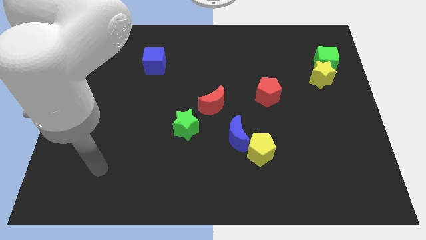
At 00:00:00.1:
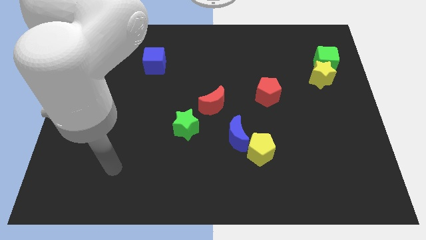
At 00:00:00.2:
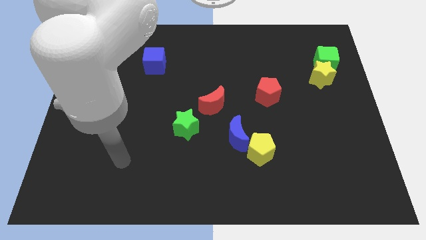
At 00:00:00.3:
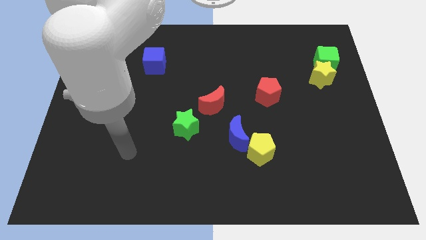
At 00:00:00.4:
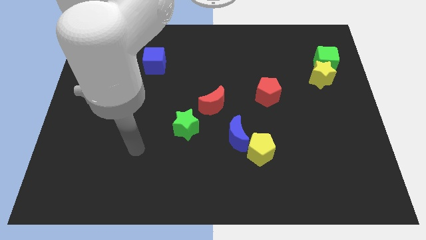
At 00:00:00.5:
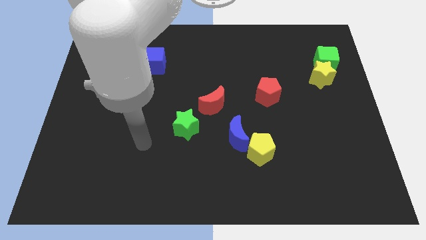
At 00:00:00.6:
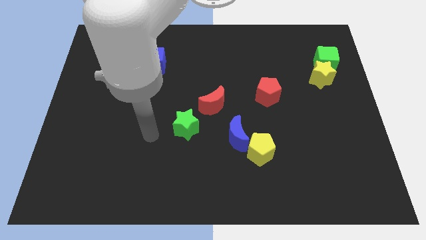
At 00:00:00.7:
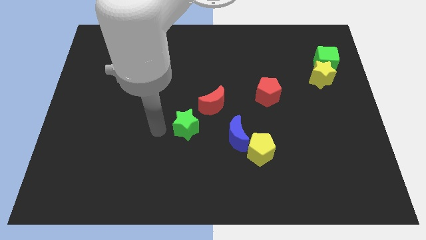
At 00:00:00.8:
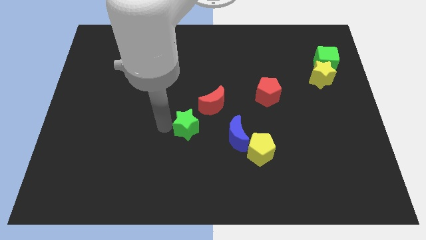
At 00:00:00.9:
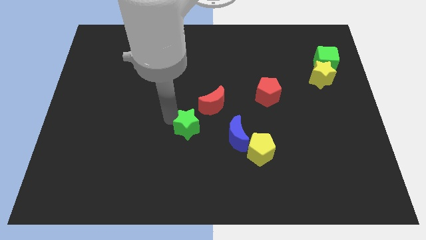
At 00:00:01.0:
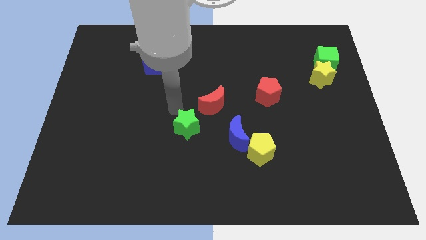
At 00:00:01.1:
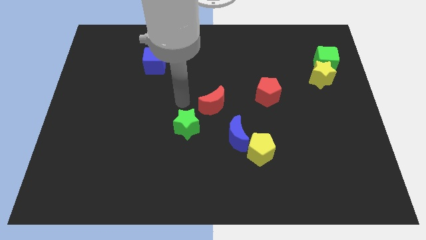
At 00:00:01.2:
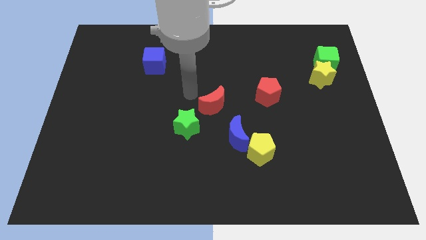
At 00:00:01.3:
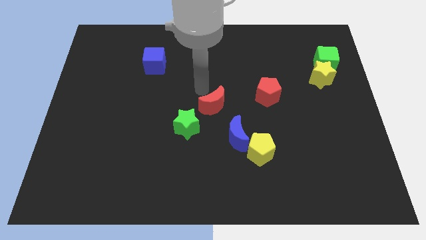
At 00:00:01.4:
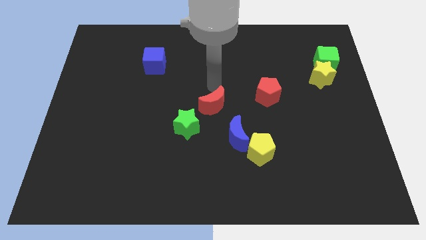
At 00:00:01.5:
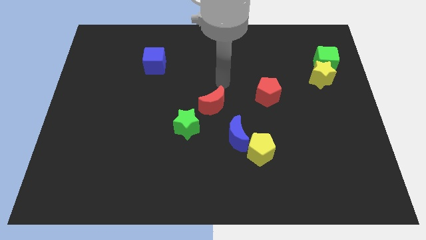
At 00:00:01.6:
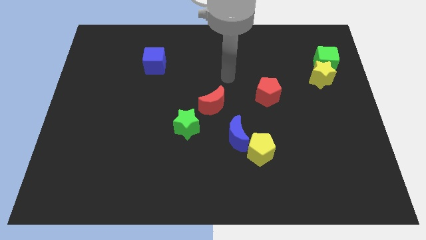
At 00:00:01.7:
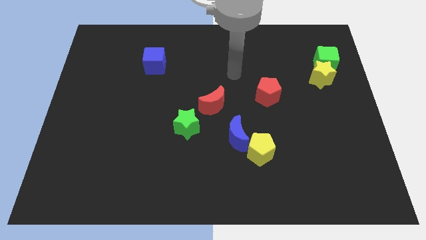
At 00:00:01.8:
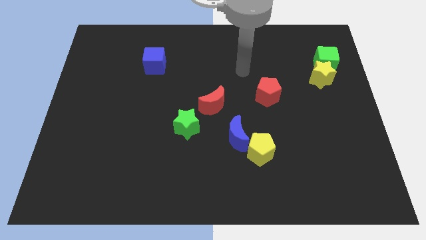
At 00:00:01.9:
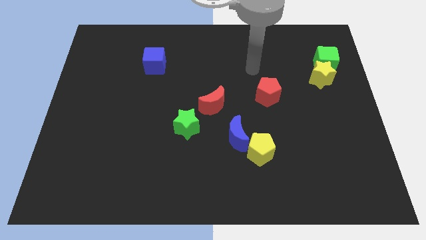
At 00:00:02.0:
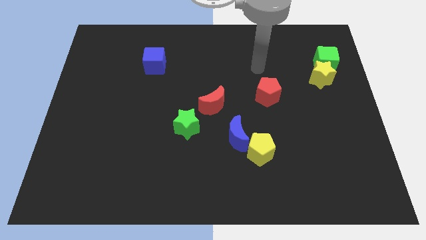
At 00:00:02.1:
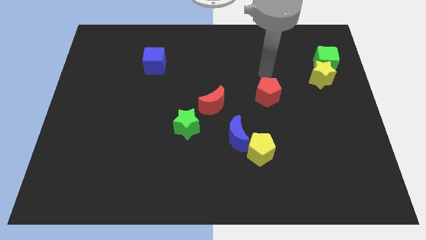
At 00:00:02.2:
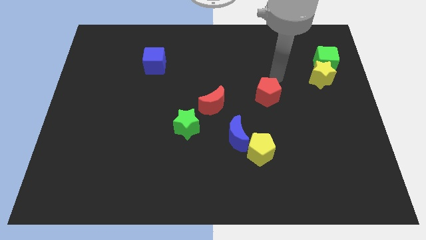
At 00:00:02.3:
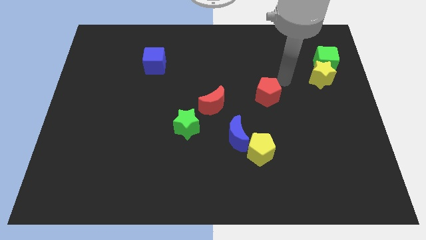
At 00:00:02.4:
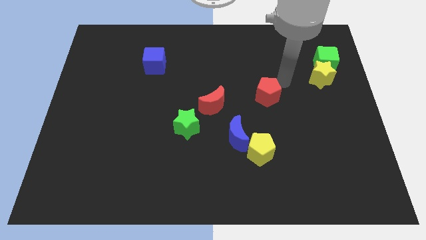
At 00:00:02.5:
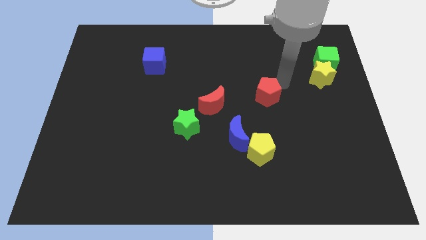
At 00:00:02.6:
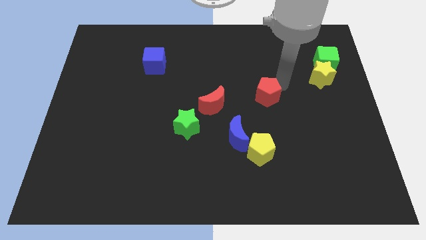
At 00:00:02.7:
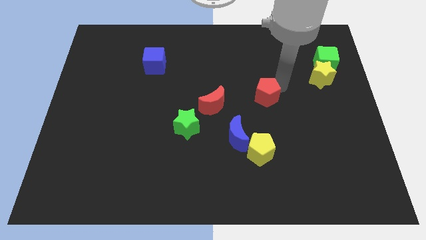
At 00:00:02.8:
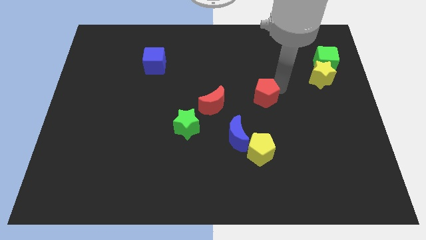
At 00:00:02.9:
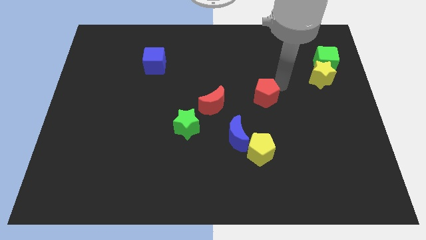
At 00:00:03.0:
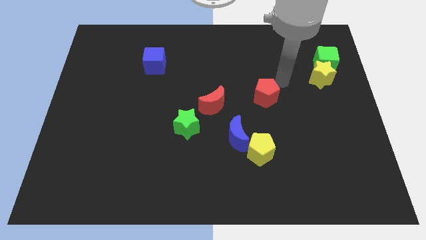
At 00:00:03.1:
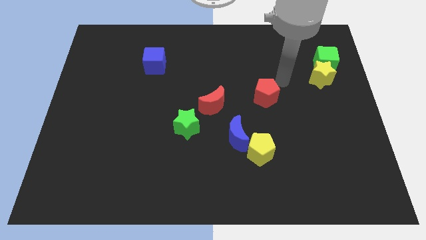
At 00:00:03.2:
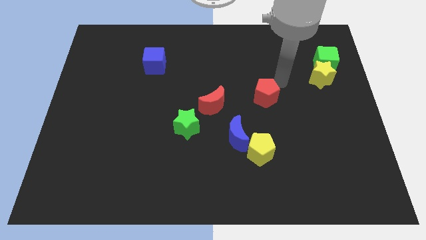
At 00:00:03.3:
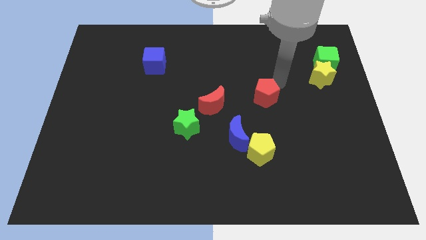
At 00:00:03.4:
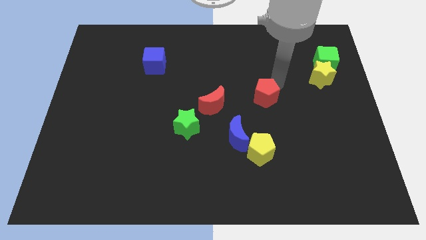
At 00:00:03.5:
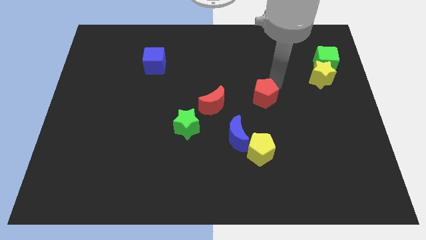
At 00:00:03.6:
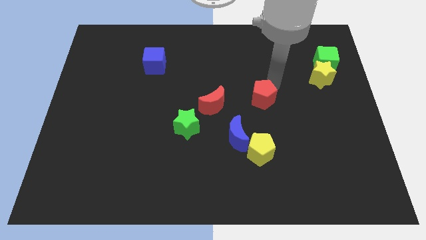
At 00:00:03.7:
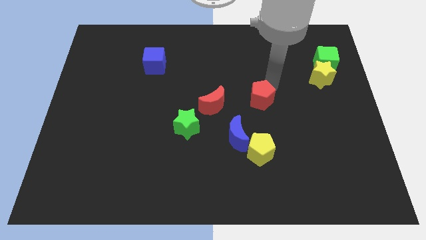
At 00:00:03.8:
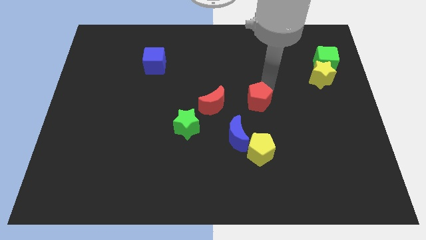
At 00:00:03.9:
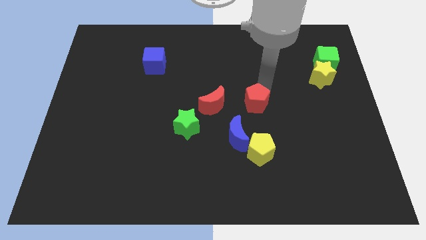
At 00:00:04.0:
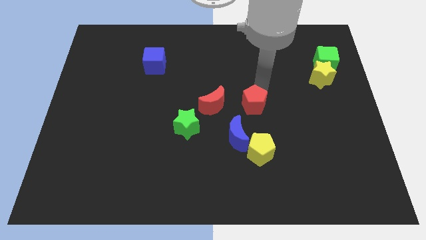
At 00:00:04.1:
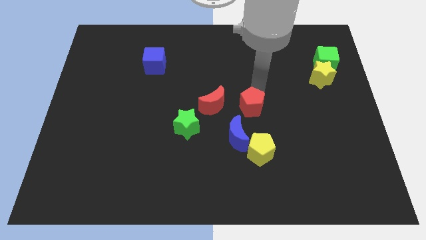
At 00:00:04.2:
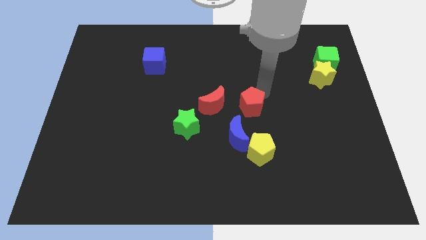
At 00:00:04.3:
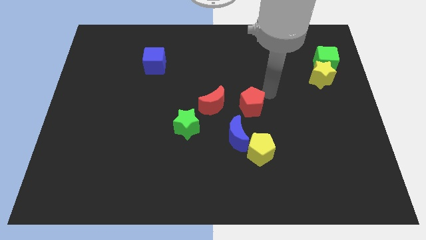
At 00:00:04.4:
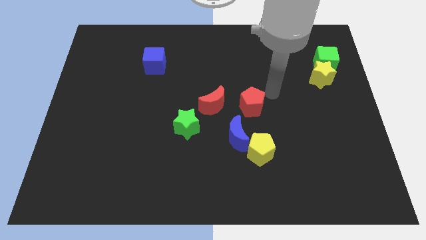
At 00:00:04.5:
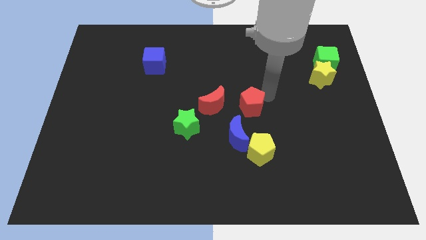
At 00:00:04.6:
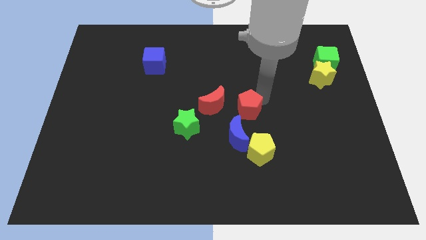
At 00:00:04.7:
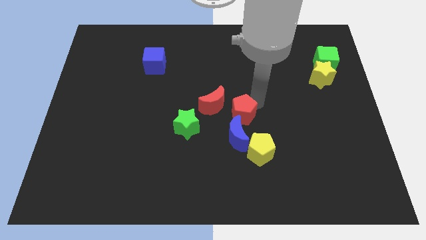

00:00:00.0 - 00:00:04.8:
move the red pentagon slightly downwards and left diagonally

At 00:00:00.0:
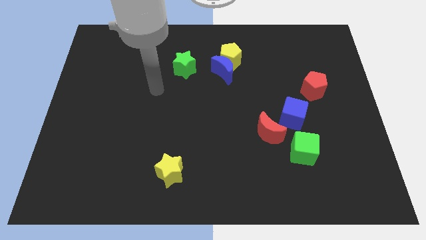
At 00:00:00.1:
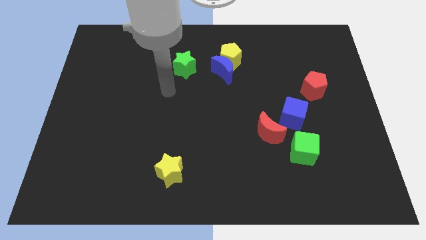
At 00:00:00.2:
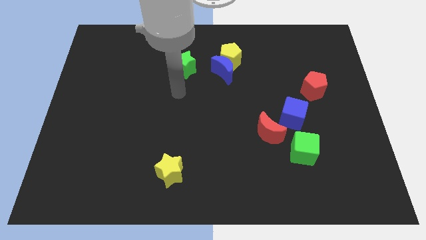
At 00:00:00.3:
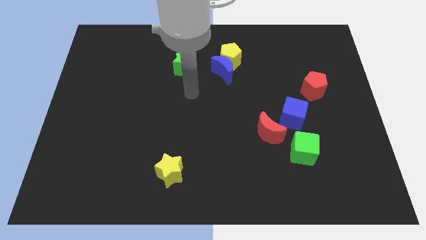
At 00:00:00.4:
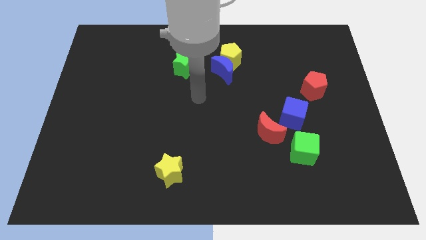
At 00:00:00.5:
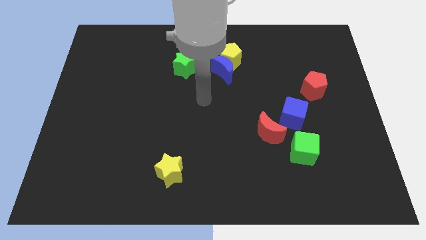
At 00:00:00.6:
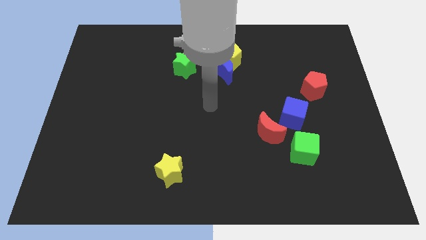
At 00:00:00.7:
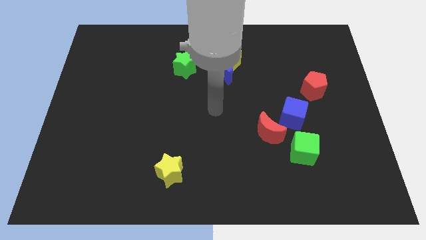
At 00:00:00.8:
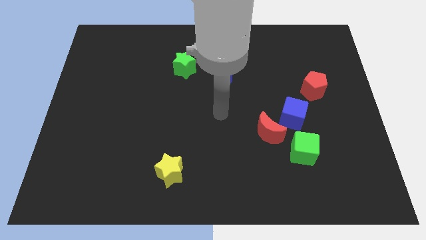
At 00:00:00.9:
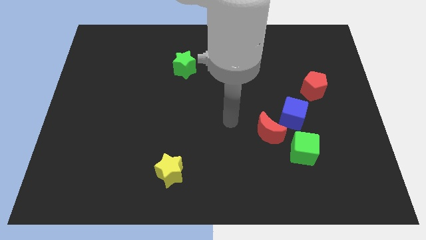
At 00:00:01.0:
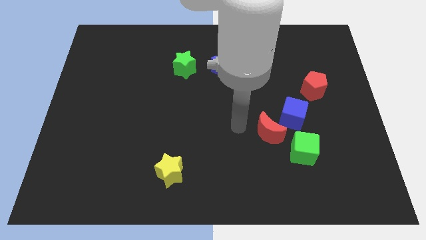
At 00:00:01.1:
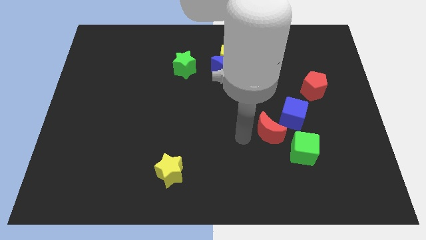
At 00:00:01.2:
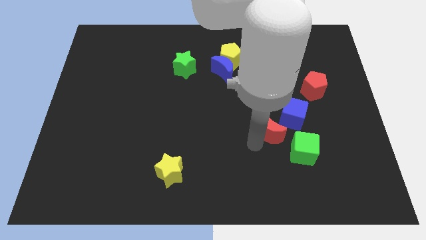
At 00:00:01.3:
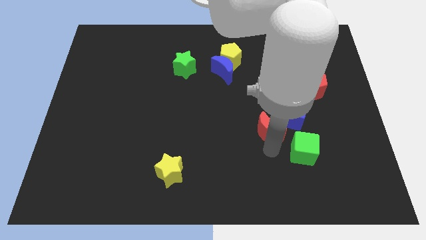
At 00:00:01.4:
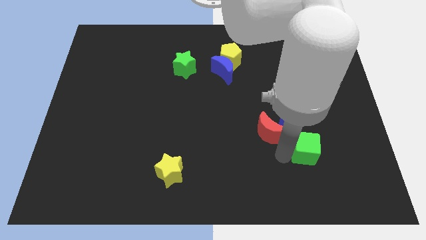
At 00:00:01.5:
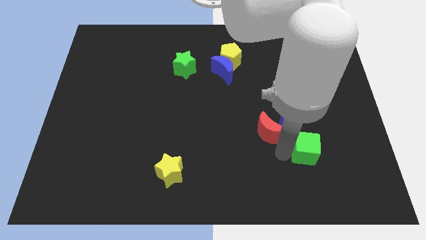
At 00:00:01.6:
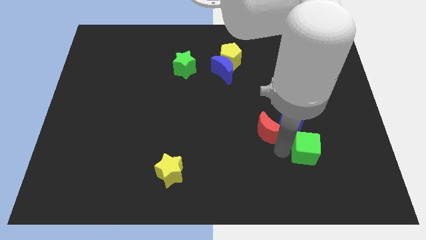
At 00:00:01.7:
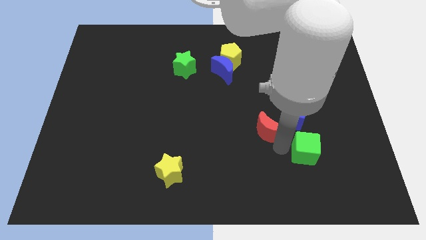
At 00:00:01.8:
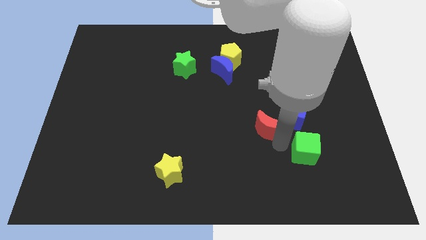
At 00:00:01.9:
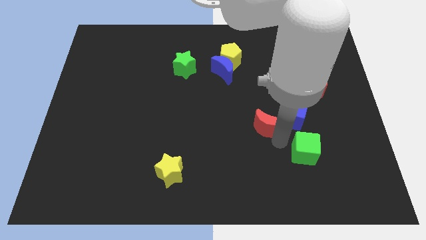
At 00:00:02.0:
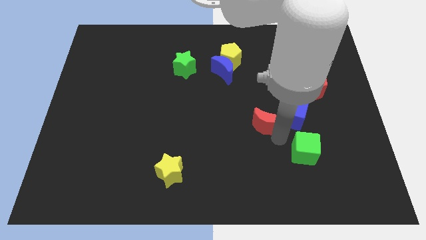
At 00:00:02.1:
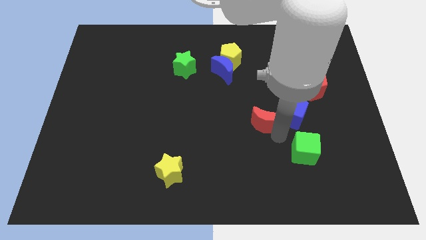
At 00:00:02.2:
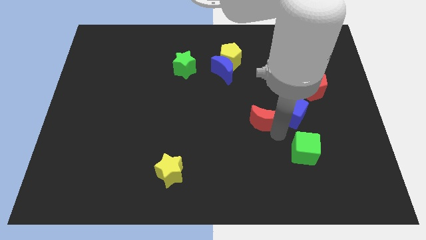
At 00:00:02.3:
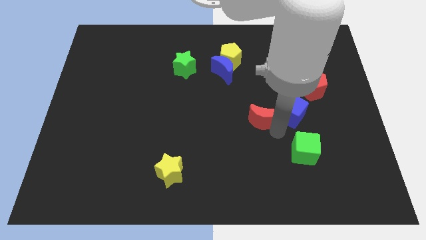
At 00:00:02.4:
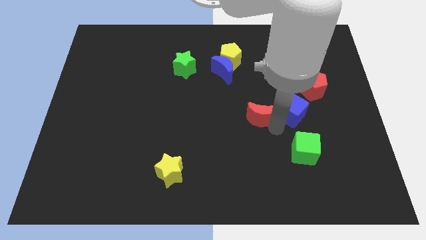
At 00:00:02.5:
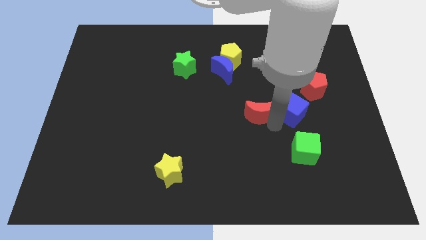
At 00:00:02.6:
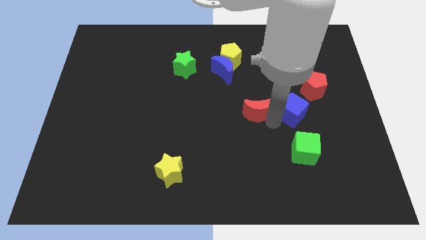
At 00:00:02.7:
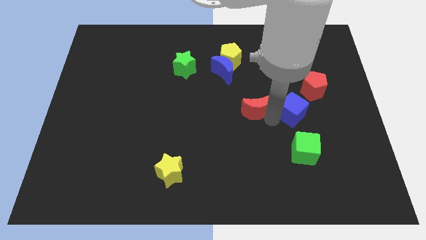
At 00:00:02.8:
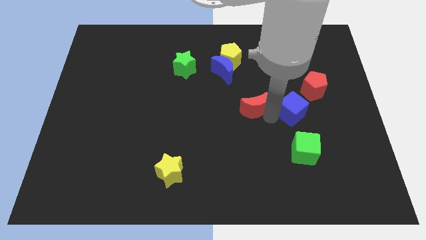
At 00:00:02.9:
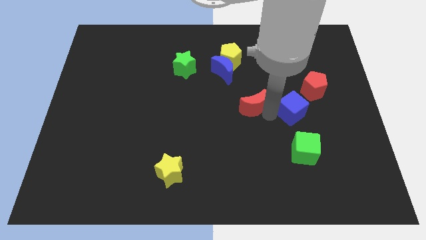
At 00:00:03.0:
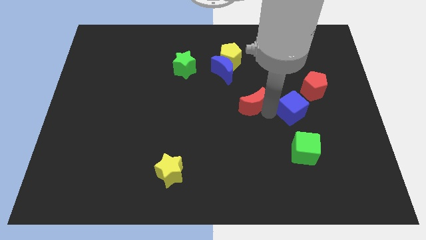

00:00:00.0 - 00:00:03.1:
move the red moon diagonally upwards and to the left a little bit

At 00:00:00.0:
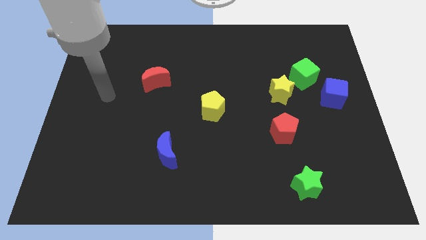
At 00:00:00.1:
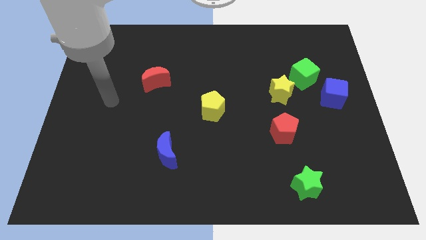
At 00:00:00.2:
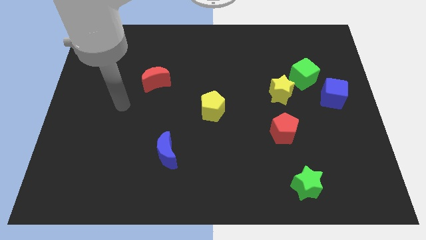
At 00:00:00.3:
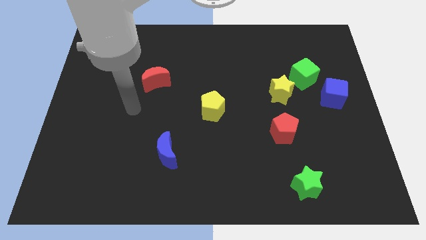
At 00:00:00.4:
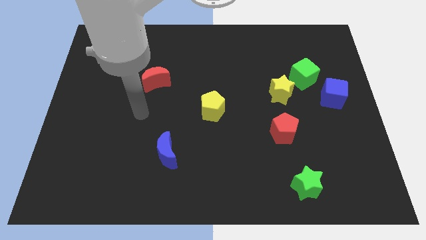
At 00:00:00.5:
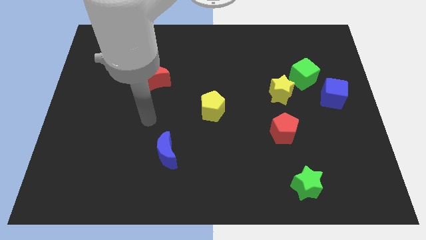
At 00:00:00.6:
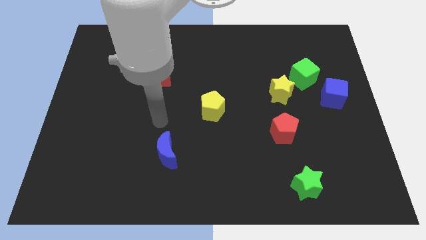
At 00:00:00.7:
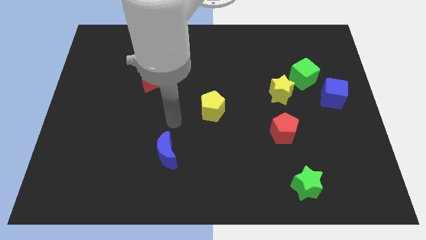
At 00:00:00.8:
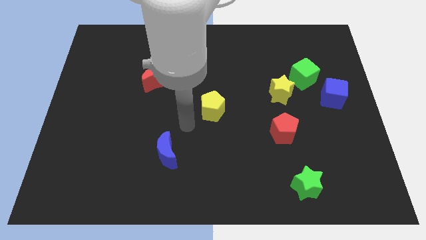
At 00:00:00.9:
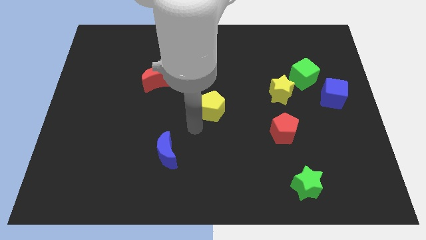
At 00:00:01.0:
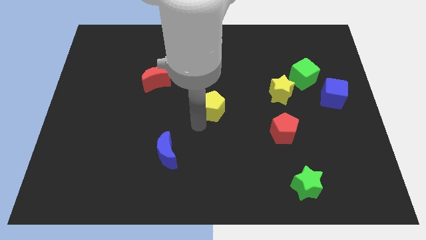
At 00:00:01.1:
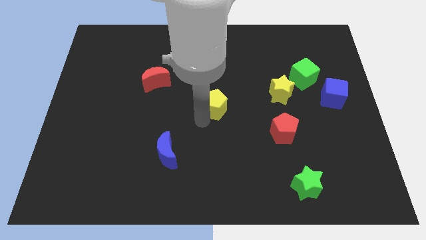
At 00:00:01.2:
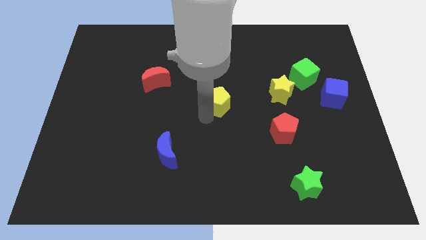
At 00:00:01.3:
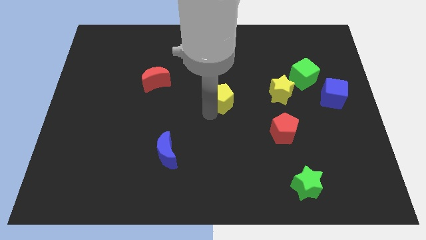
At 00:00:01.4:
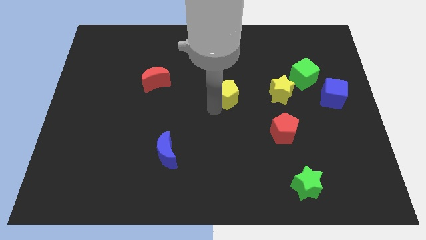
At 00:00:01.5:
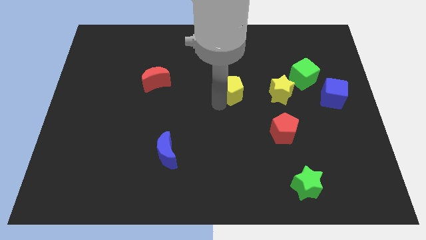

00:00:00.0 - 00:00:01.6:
slightly push the yellow pentagon up and then right
